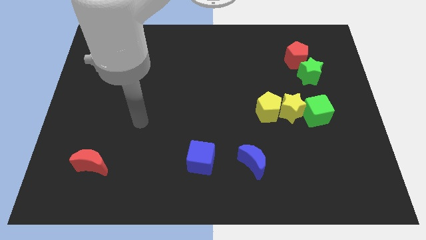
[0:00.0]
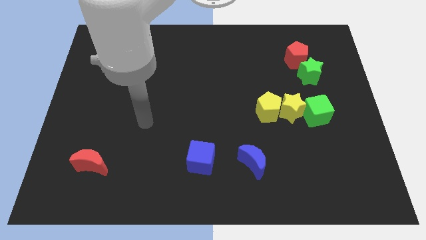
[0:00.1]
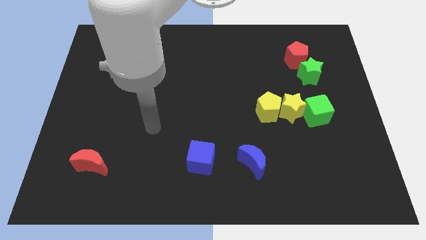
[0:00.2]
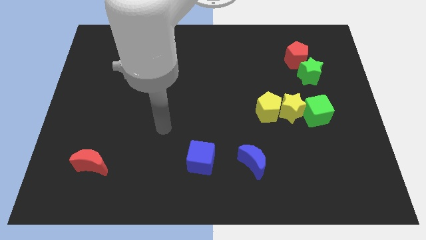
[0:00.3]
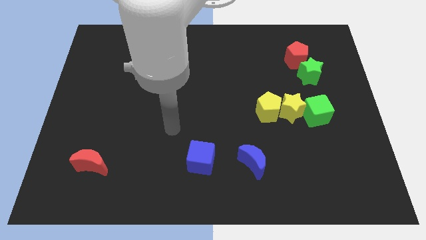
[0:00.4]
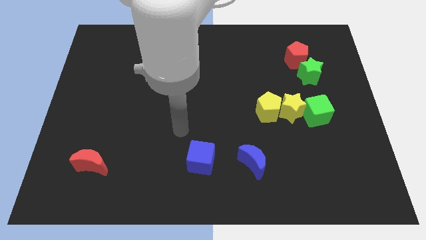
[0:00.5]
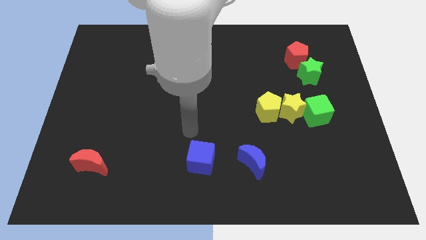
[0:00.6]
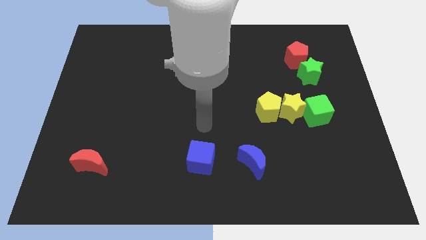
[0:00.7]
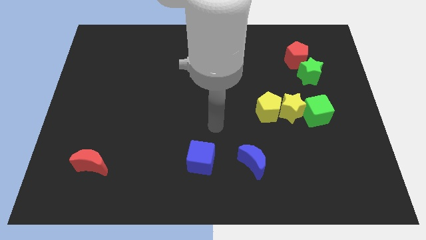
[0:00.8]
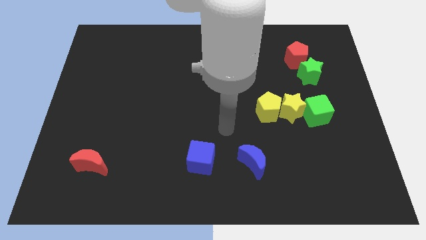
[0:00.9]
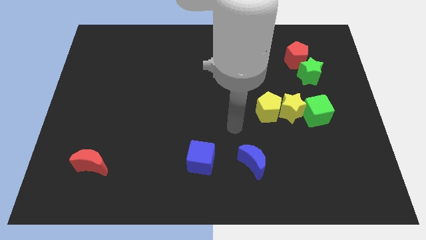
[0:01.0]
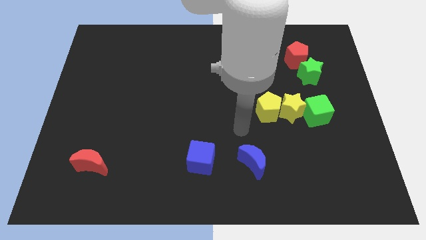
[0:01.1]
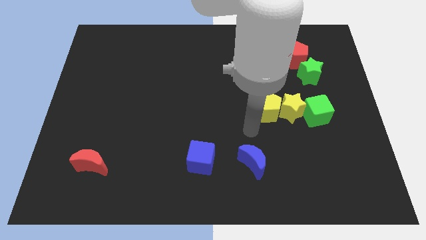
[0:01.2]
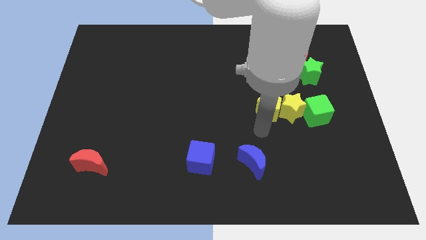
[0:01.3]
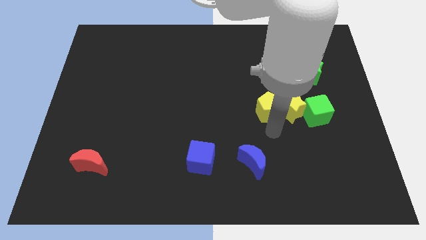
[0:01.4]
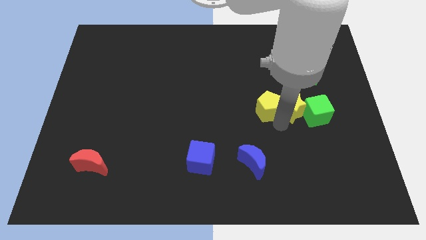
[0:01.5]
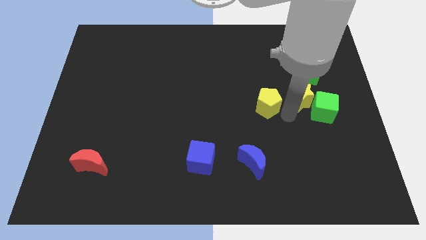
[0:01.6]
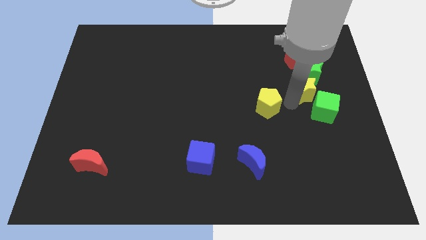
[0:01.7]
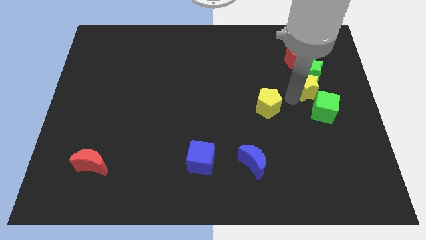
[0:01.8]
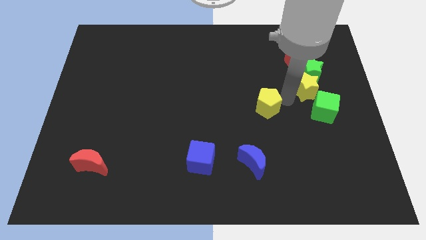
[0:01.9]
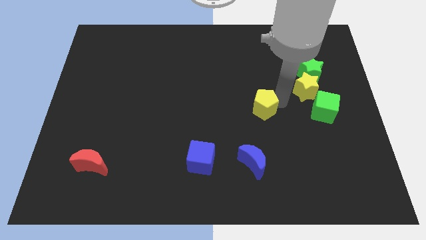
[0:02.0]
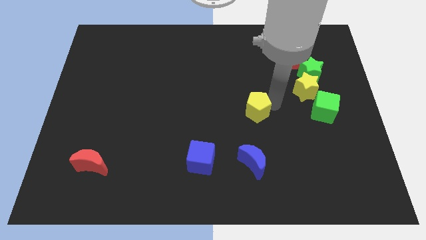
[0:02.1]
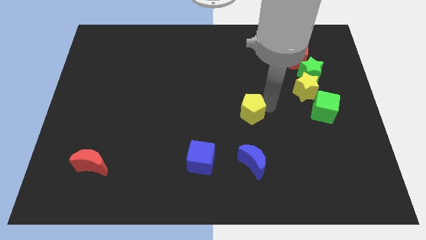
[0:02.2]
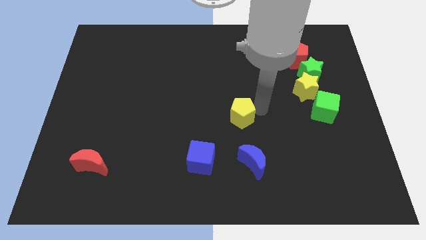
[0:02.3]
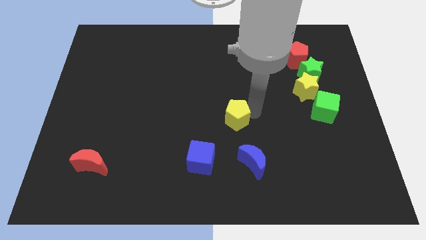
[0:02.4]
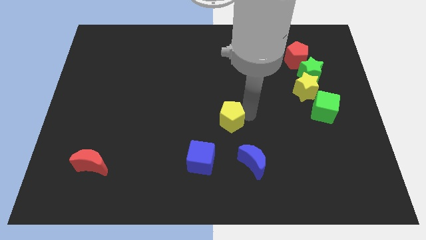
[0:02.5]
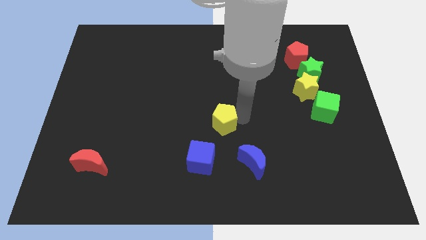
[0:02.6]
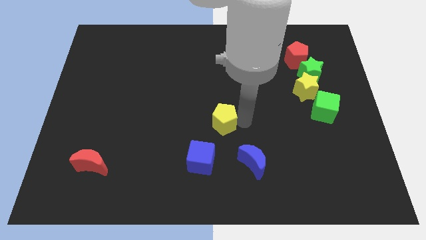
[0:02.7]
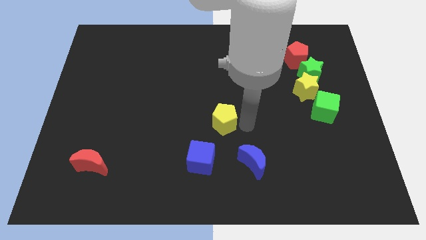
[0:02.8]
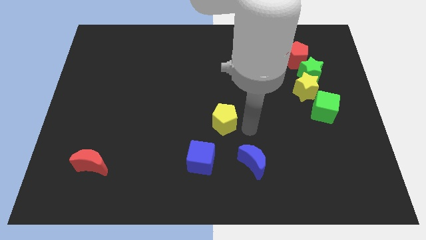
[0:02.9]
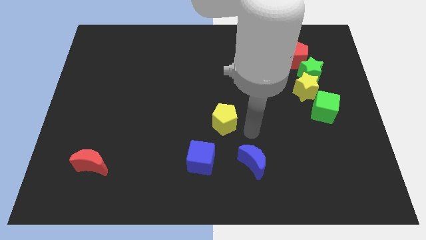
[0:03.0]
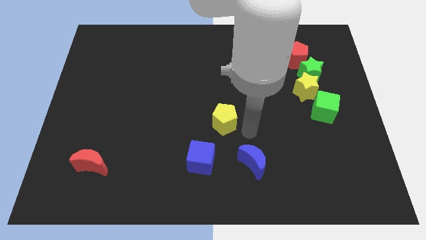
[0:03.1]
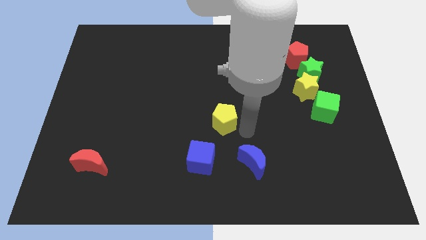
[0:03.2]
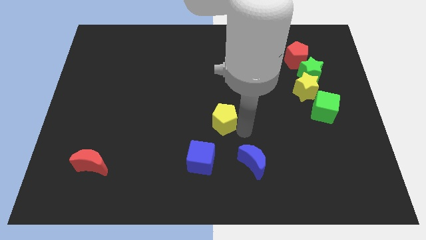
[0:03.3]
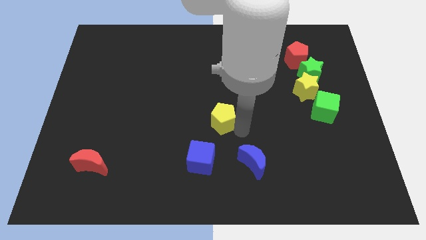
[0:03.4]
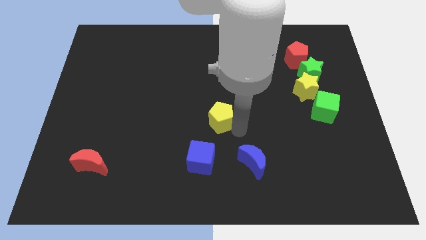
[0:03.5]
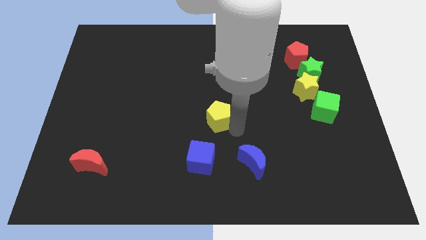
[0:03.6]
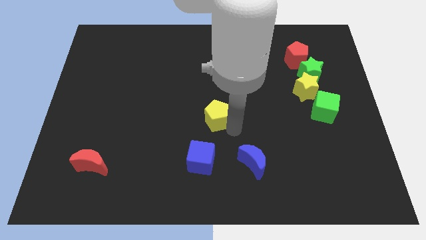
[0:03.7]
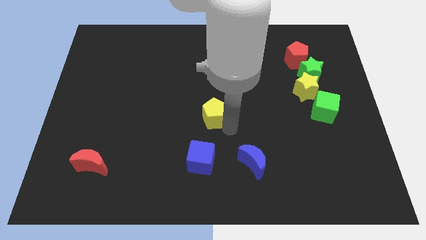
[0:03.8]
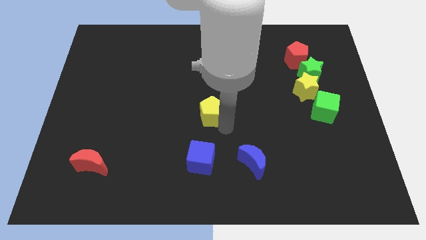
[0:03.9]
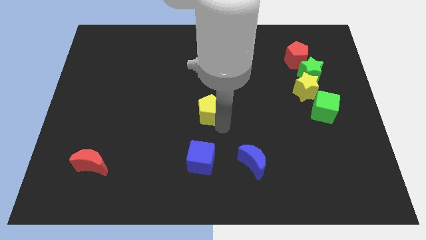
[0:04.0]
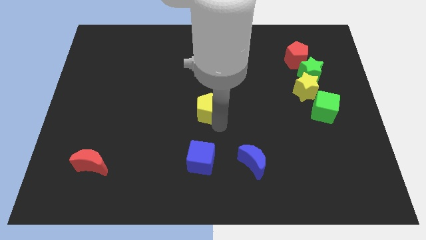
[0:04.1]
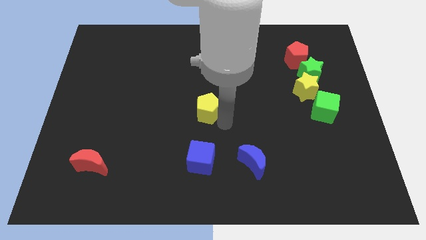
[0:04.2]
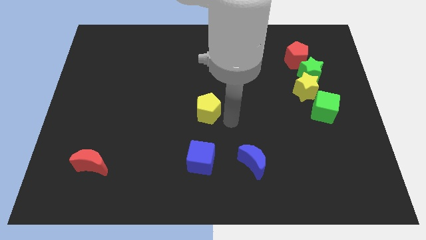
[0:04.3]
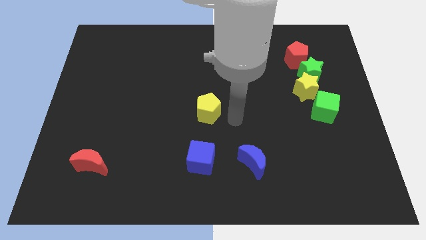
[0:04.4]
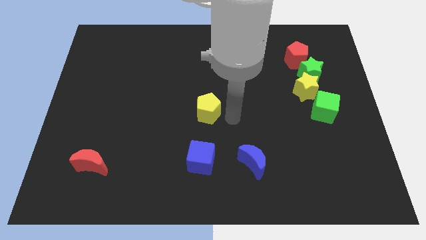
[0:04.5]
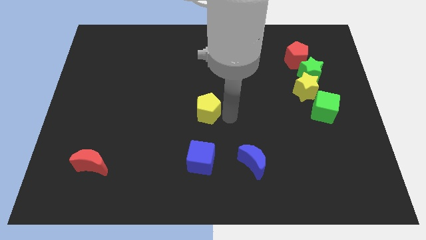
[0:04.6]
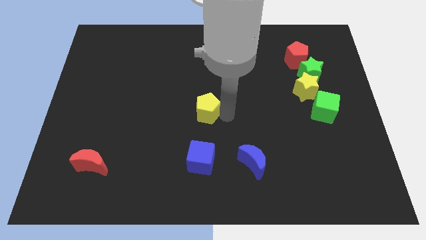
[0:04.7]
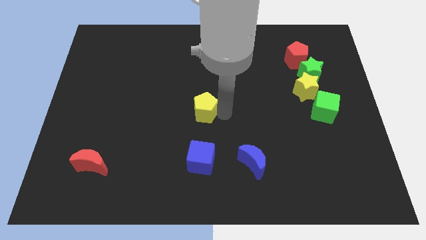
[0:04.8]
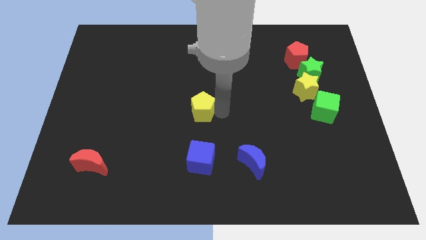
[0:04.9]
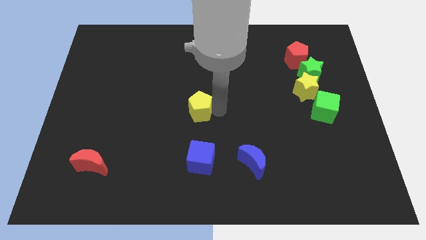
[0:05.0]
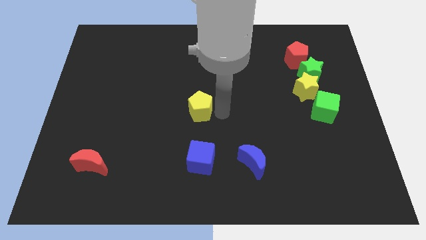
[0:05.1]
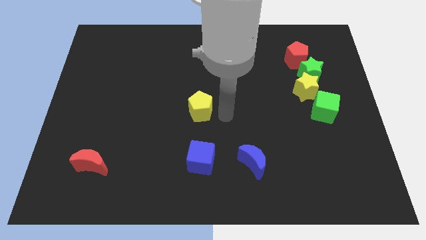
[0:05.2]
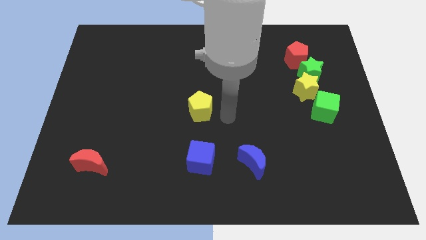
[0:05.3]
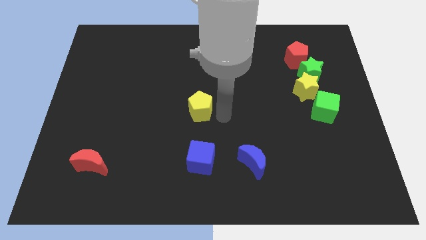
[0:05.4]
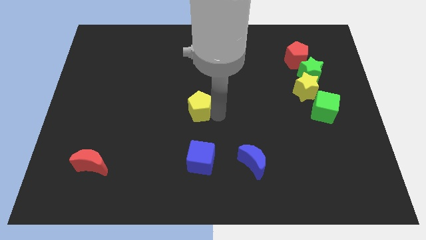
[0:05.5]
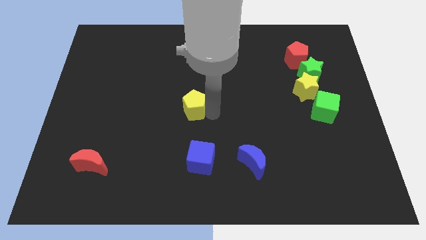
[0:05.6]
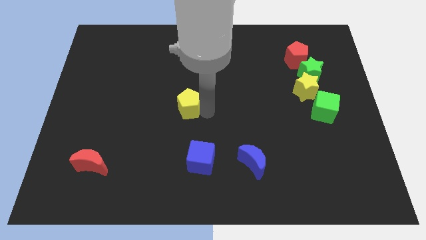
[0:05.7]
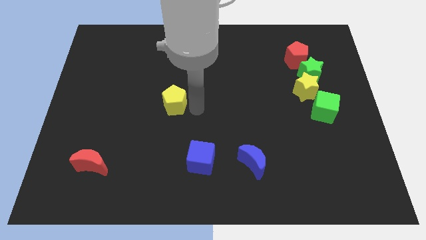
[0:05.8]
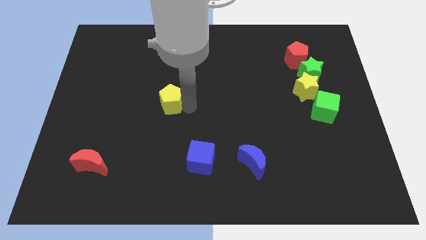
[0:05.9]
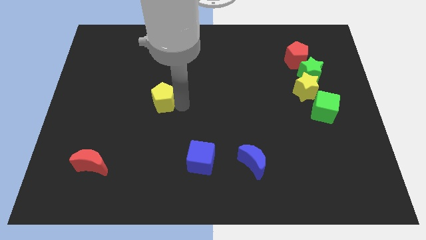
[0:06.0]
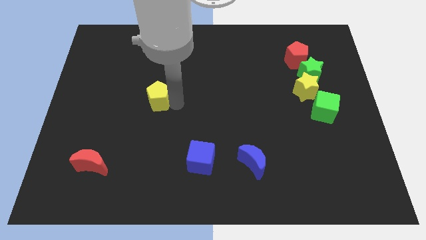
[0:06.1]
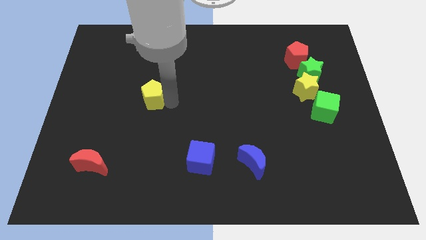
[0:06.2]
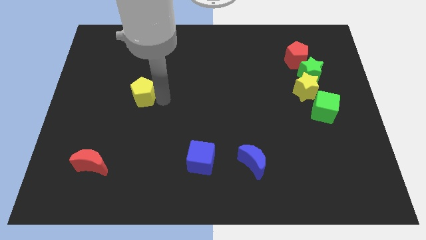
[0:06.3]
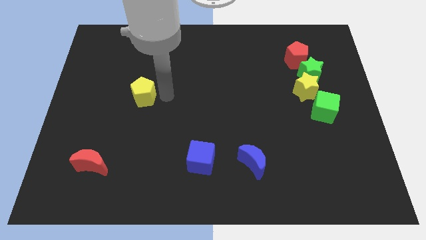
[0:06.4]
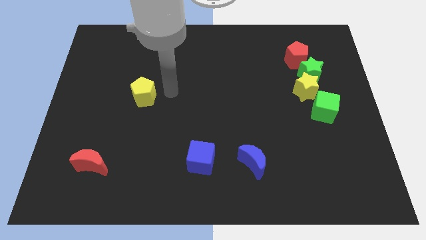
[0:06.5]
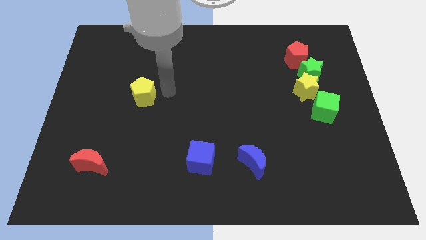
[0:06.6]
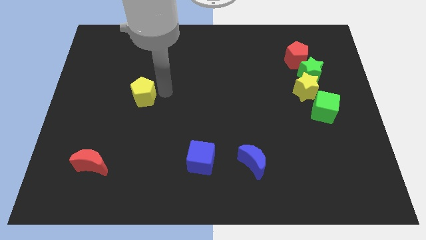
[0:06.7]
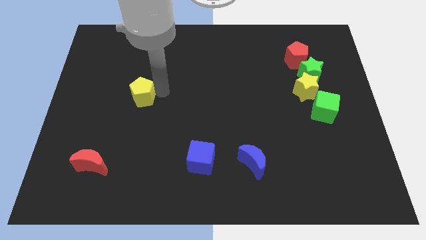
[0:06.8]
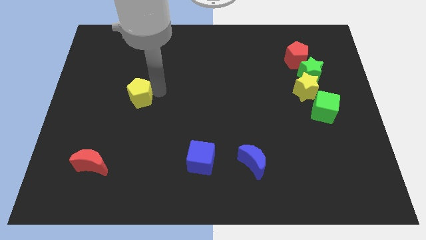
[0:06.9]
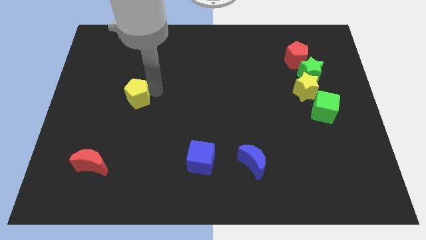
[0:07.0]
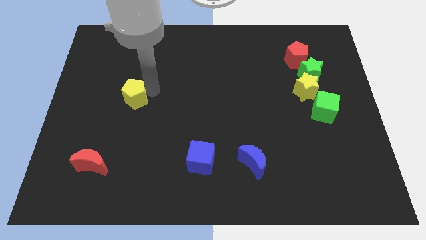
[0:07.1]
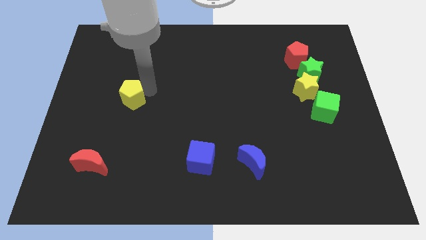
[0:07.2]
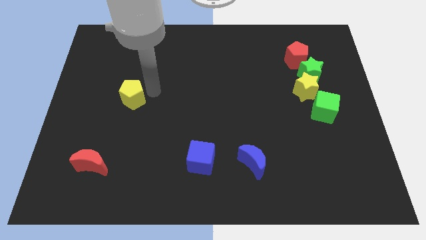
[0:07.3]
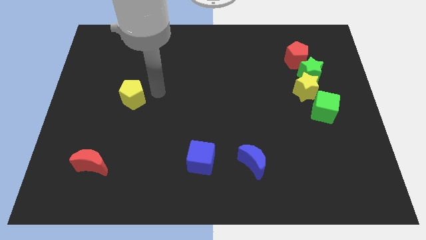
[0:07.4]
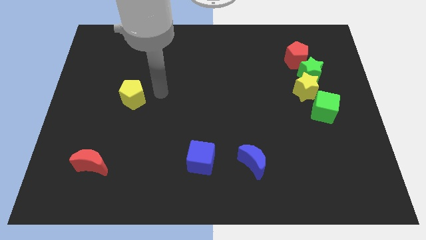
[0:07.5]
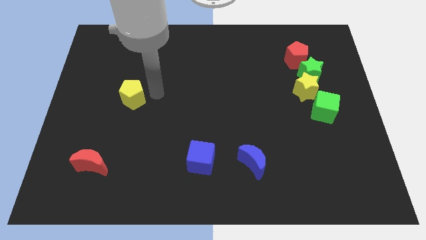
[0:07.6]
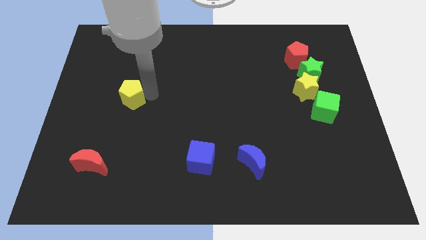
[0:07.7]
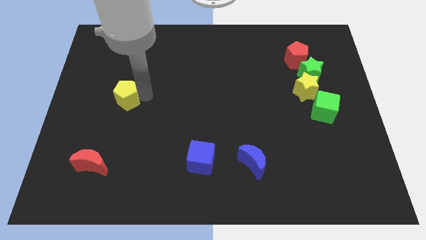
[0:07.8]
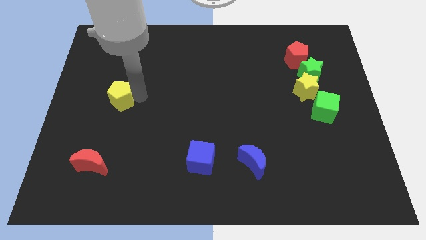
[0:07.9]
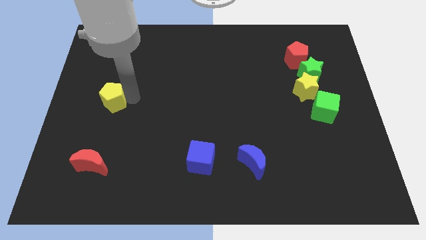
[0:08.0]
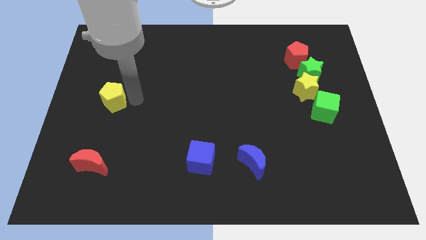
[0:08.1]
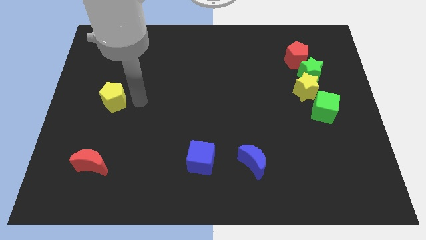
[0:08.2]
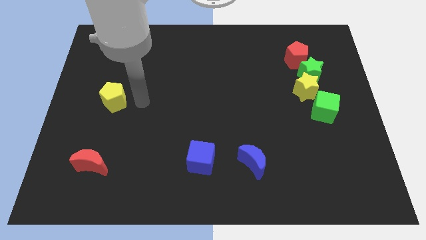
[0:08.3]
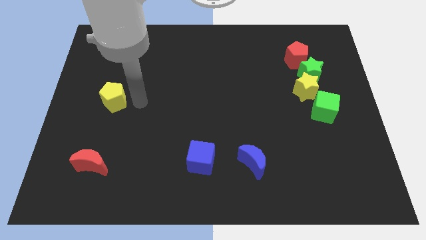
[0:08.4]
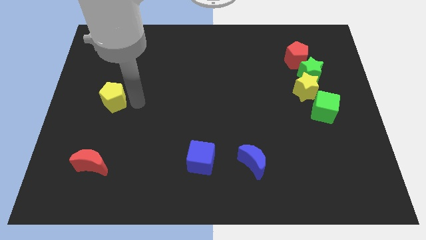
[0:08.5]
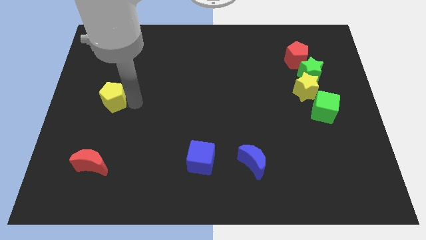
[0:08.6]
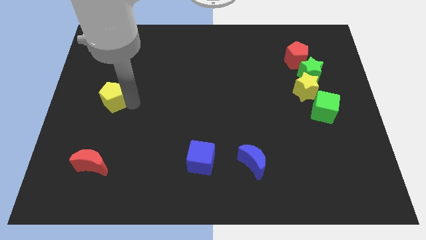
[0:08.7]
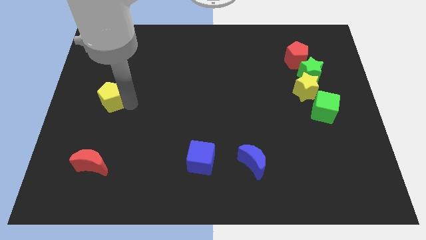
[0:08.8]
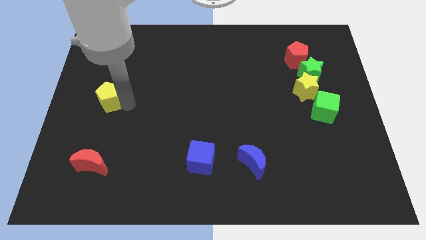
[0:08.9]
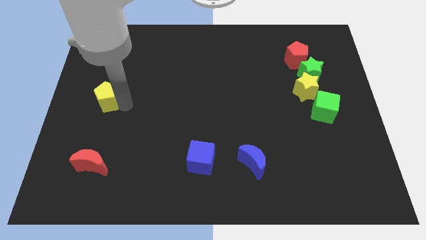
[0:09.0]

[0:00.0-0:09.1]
push the yellow pentagon to the left side
